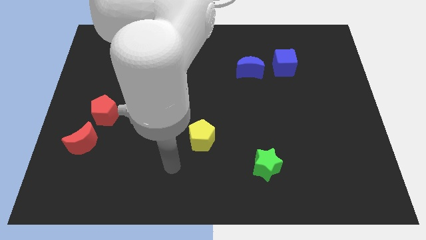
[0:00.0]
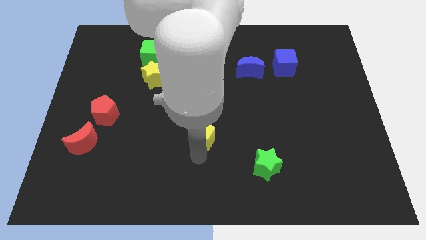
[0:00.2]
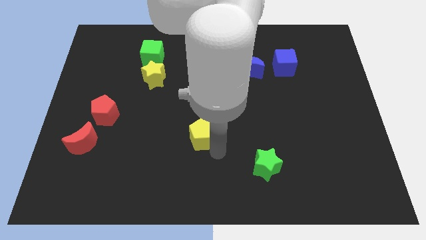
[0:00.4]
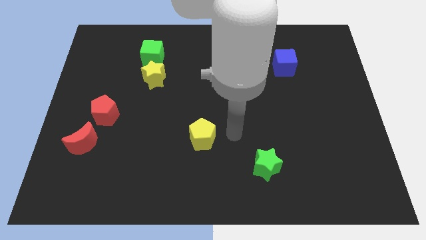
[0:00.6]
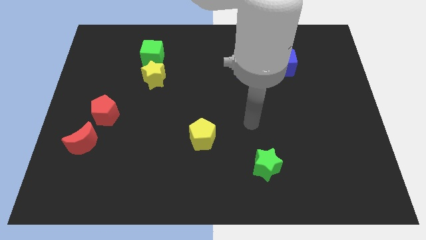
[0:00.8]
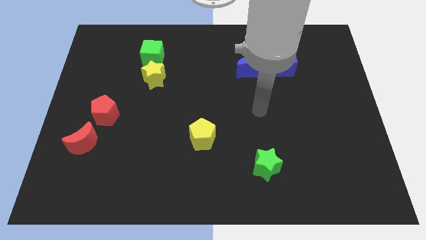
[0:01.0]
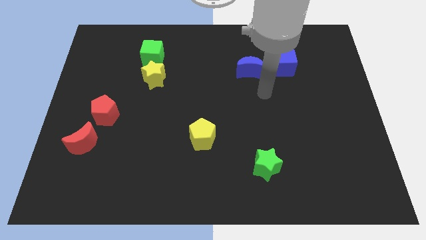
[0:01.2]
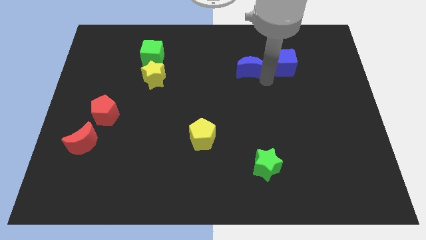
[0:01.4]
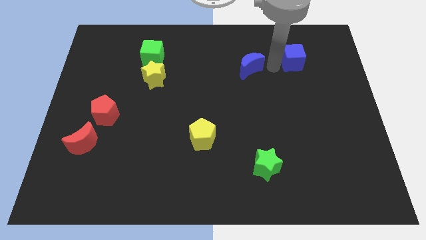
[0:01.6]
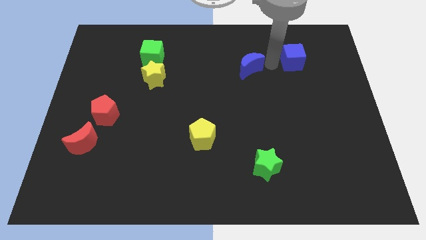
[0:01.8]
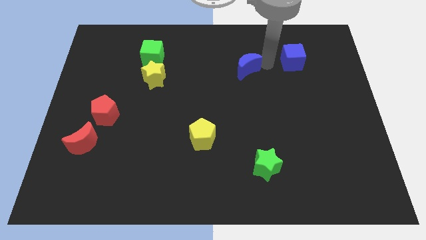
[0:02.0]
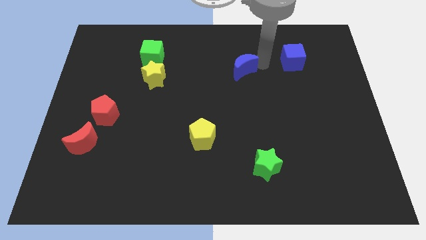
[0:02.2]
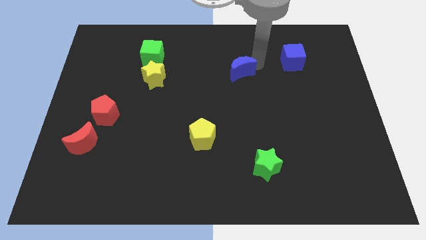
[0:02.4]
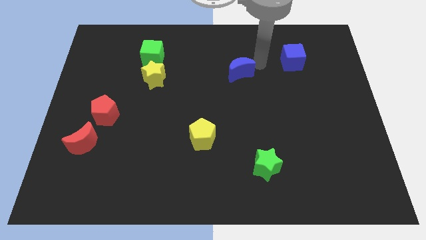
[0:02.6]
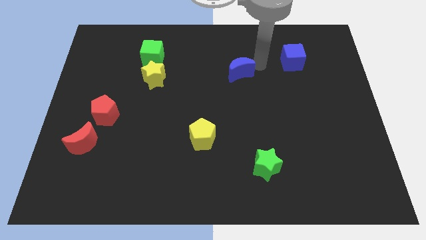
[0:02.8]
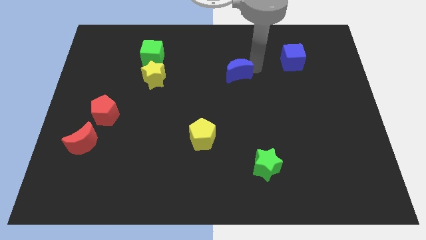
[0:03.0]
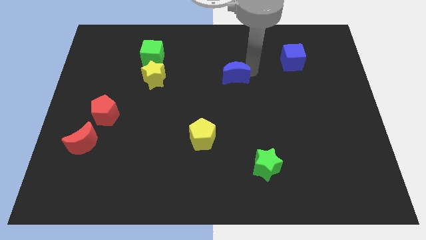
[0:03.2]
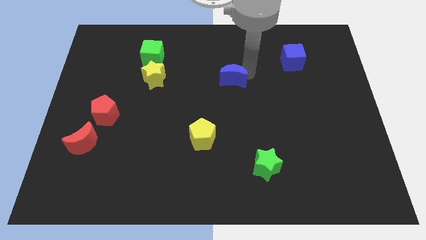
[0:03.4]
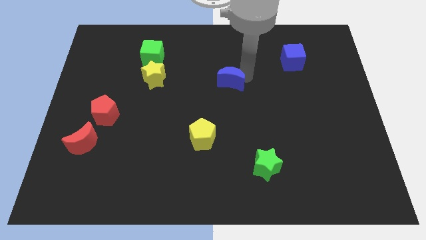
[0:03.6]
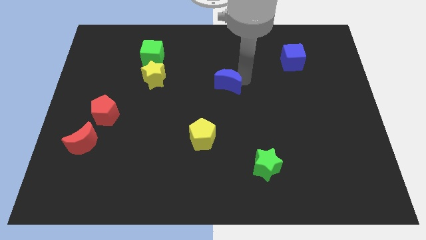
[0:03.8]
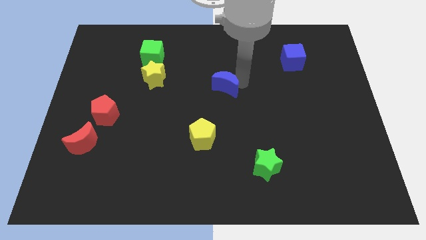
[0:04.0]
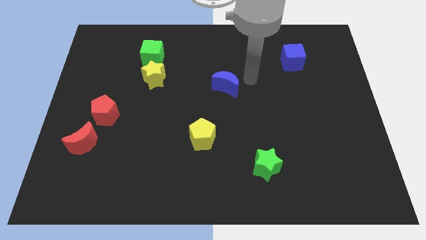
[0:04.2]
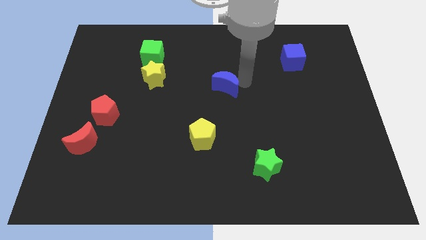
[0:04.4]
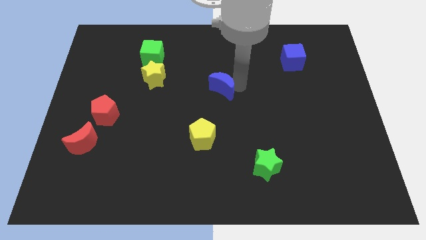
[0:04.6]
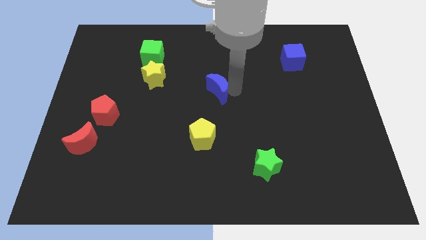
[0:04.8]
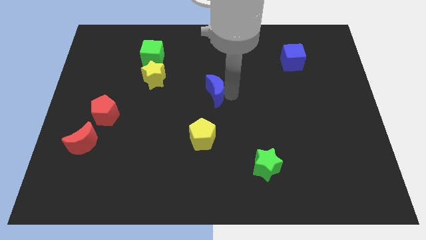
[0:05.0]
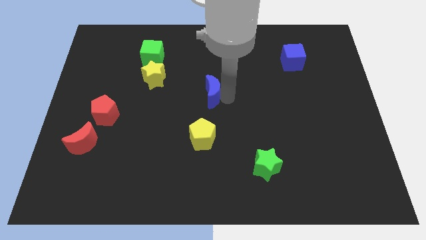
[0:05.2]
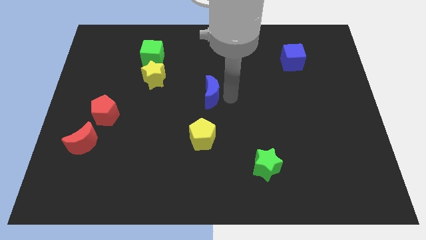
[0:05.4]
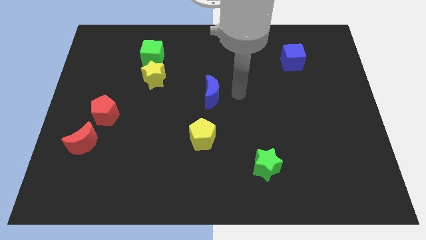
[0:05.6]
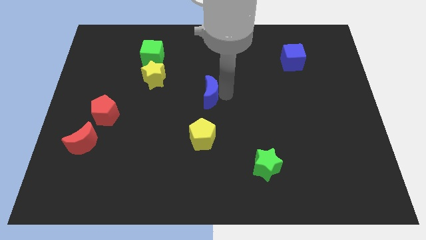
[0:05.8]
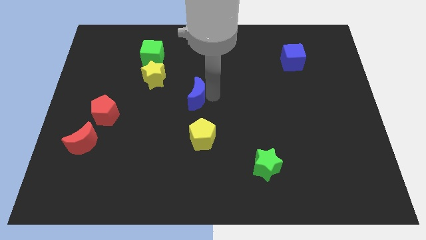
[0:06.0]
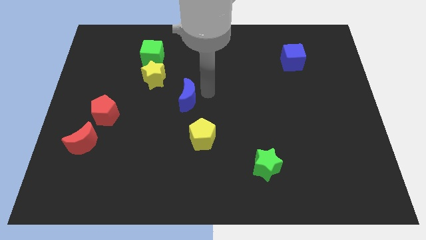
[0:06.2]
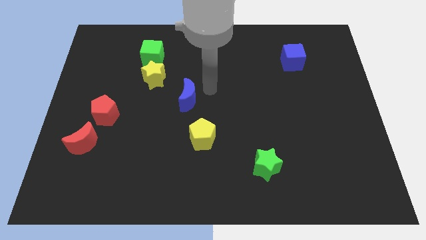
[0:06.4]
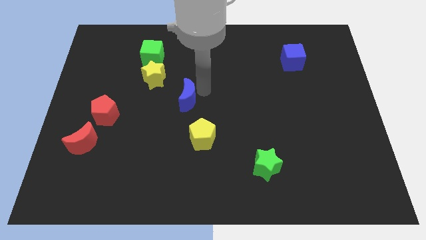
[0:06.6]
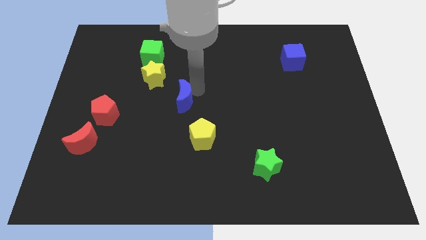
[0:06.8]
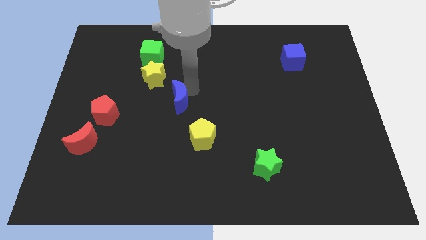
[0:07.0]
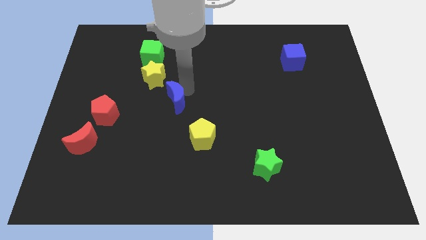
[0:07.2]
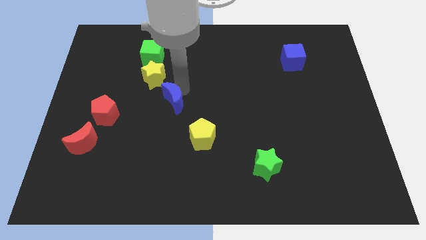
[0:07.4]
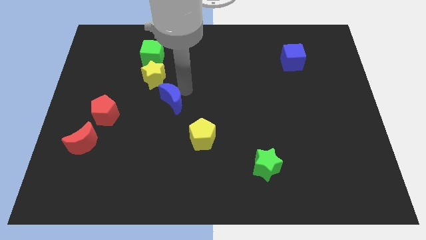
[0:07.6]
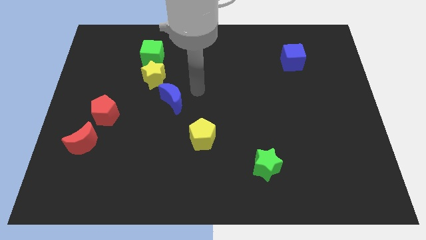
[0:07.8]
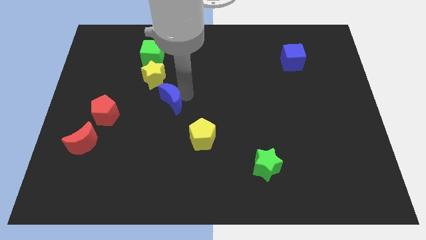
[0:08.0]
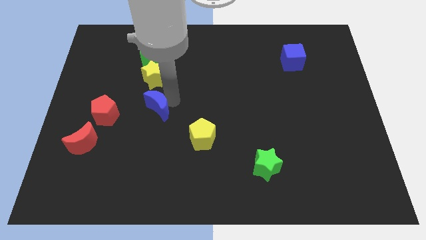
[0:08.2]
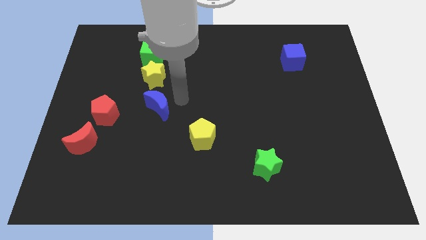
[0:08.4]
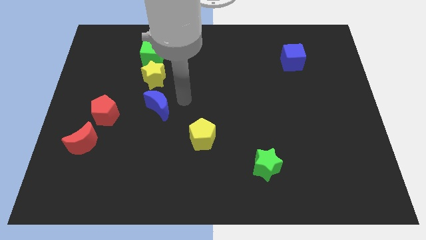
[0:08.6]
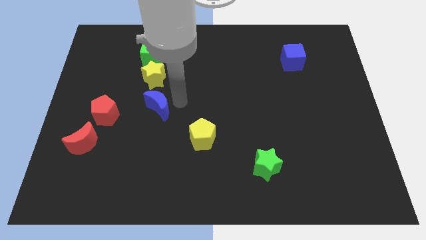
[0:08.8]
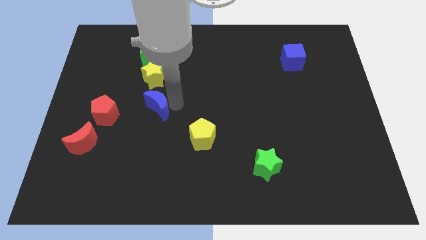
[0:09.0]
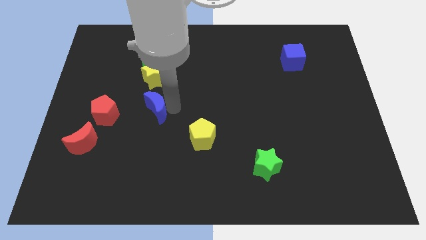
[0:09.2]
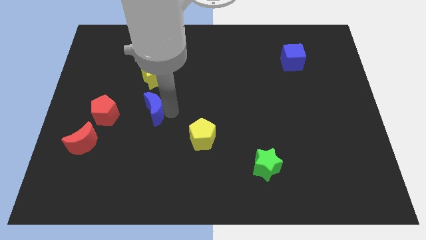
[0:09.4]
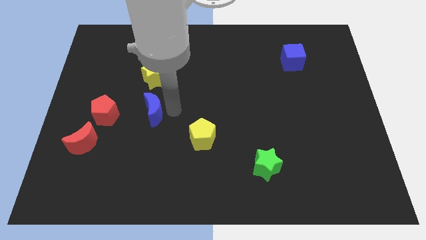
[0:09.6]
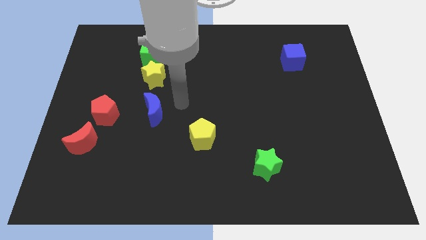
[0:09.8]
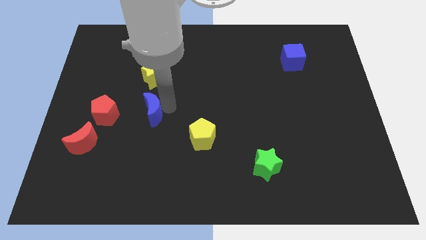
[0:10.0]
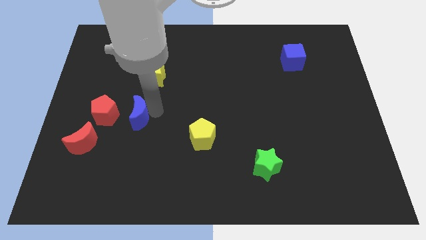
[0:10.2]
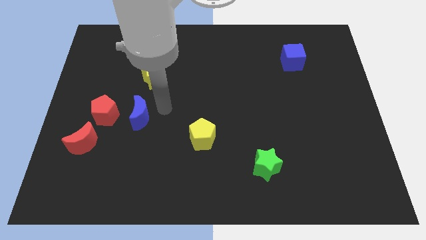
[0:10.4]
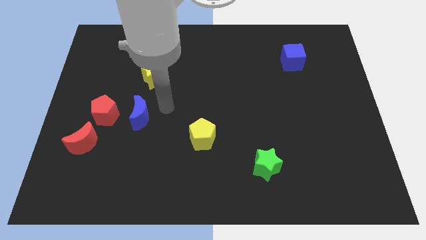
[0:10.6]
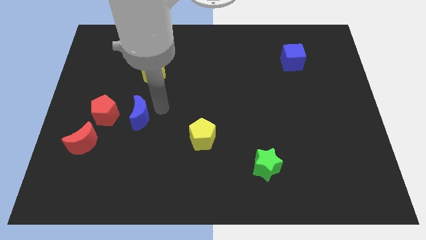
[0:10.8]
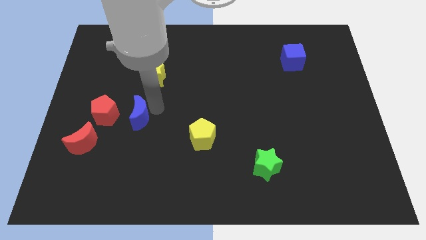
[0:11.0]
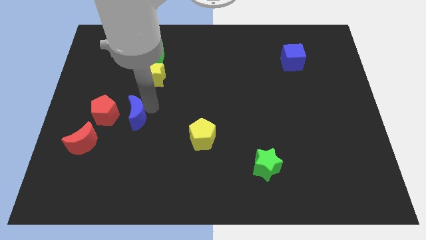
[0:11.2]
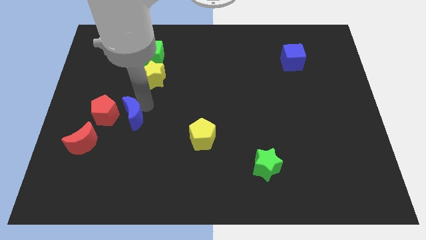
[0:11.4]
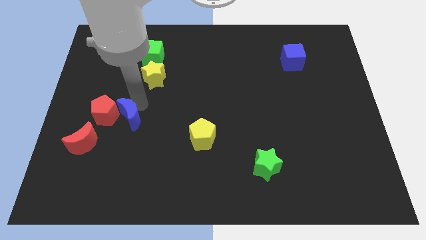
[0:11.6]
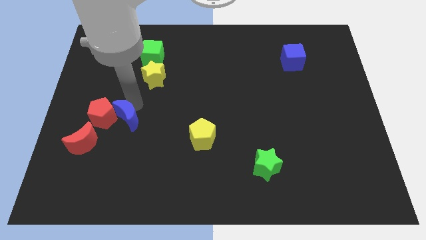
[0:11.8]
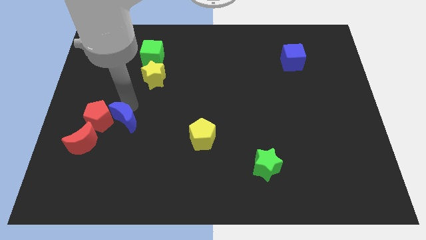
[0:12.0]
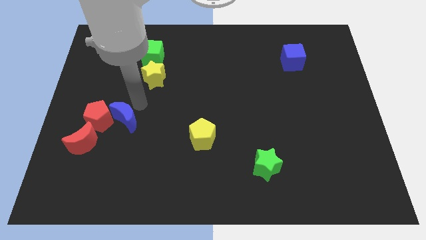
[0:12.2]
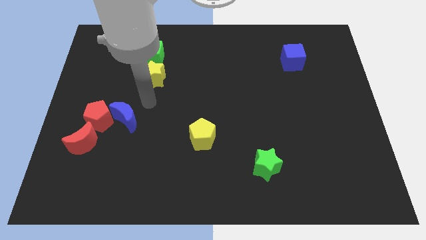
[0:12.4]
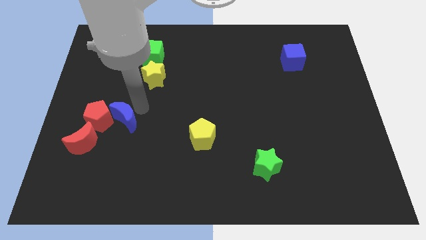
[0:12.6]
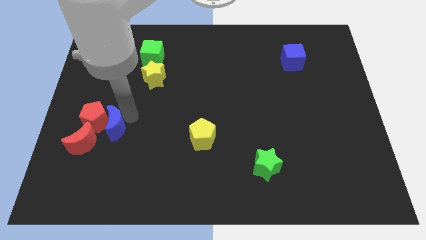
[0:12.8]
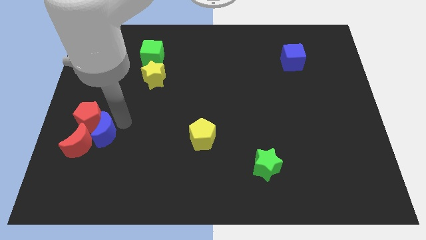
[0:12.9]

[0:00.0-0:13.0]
slide the blue moon close to the red moon
